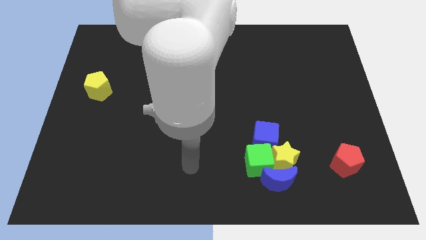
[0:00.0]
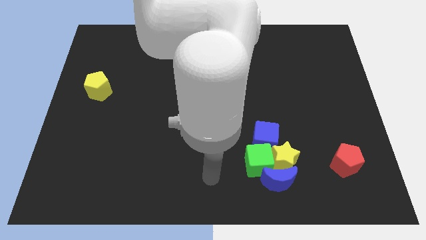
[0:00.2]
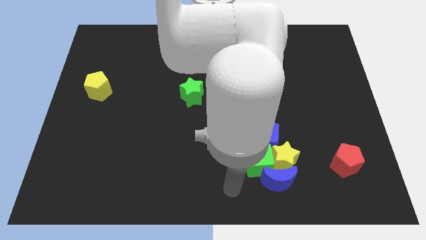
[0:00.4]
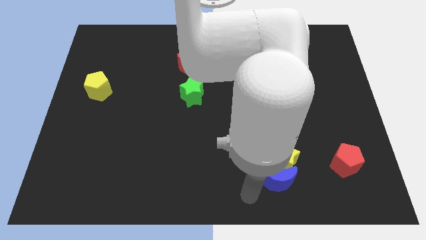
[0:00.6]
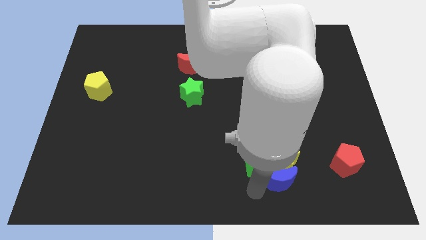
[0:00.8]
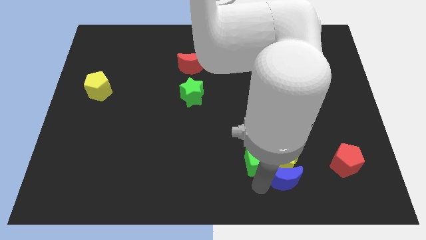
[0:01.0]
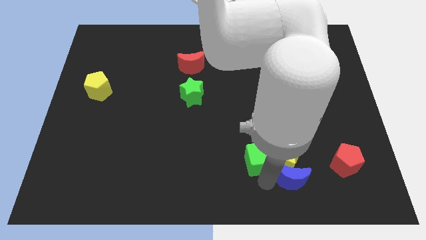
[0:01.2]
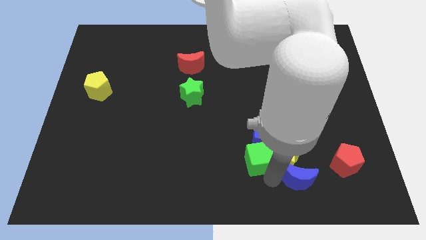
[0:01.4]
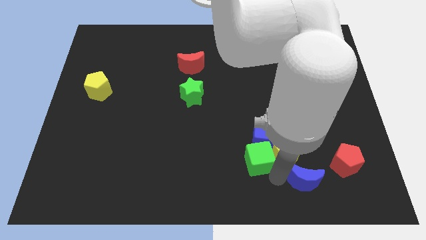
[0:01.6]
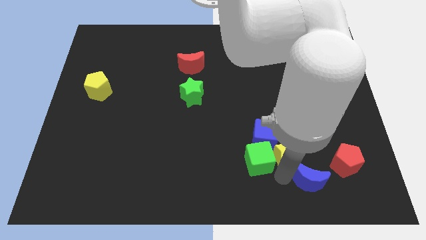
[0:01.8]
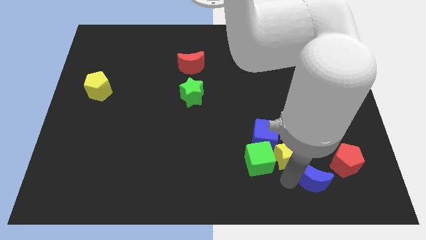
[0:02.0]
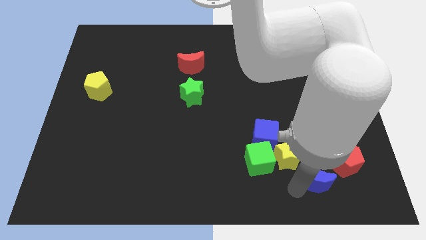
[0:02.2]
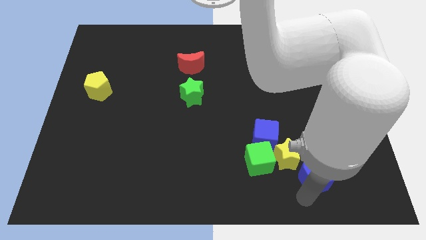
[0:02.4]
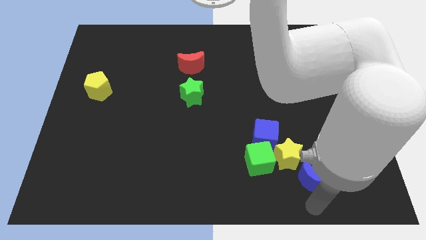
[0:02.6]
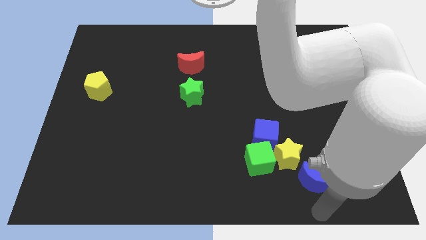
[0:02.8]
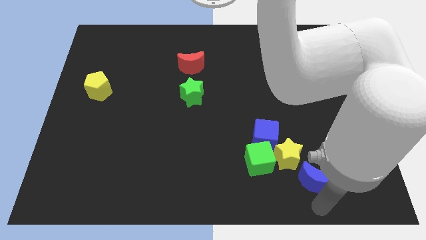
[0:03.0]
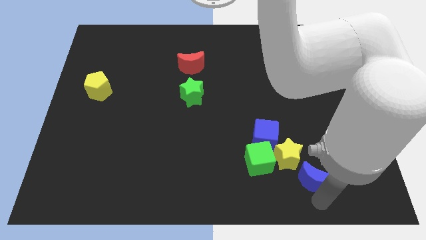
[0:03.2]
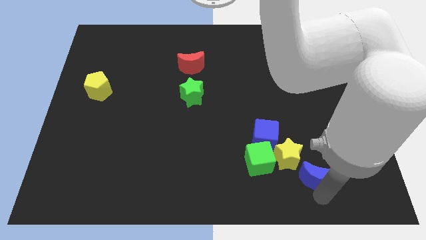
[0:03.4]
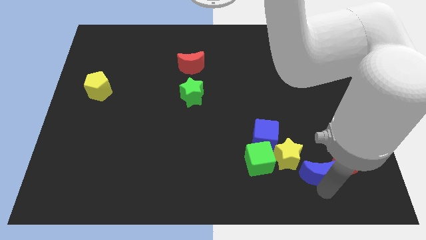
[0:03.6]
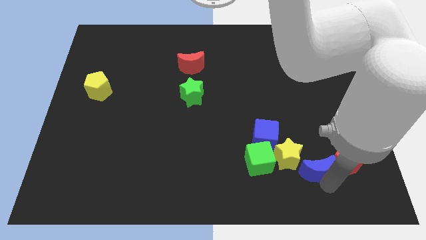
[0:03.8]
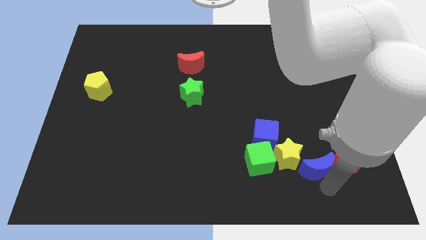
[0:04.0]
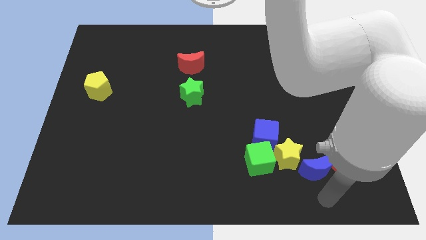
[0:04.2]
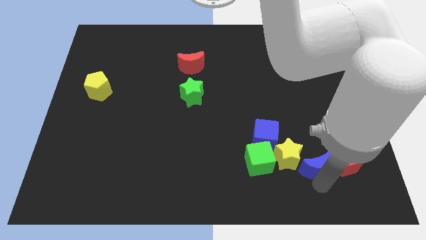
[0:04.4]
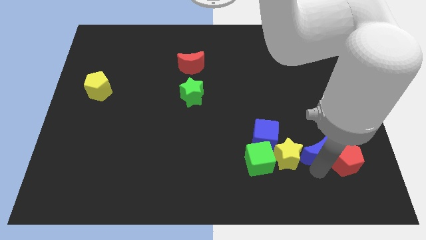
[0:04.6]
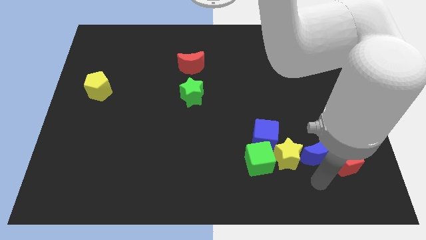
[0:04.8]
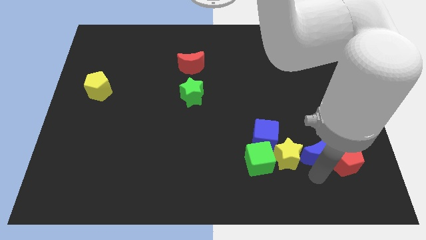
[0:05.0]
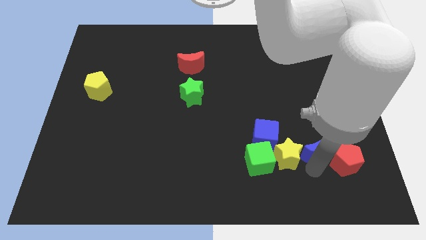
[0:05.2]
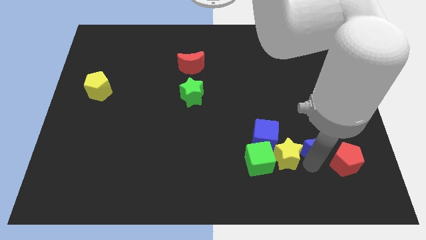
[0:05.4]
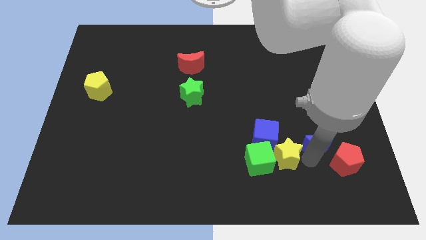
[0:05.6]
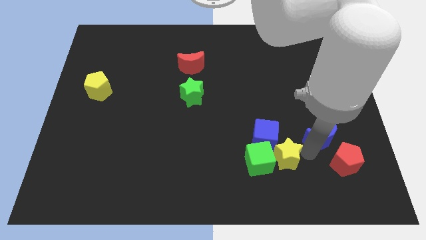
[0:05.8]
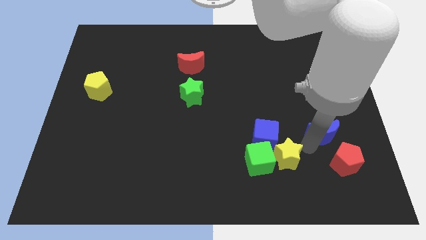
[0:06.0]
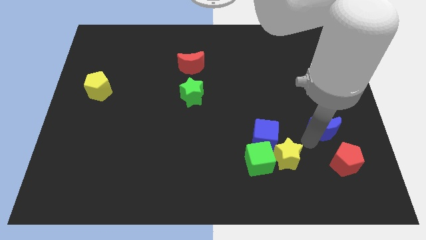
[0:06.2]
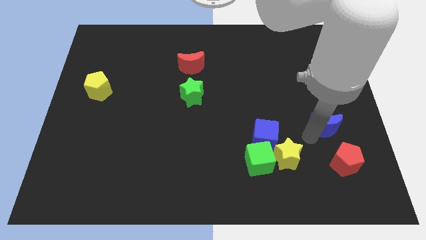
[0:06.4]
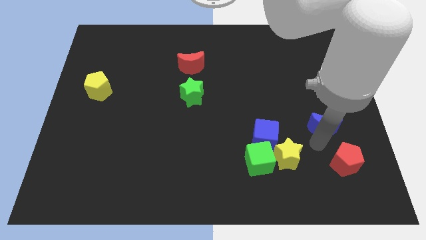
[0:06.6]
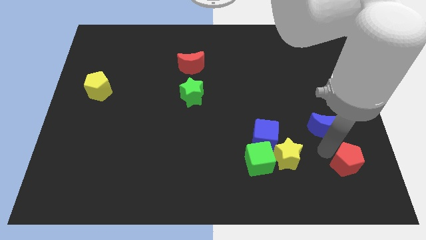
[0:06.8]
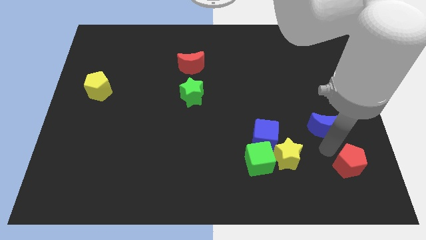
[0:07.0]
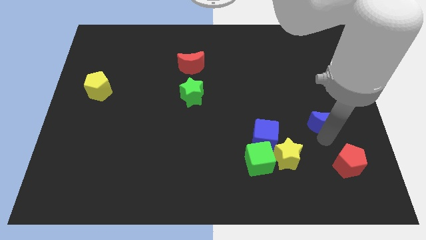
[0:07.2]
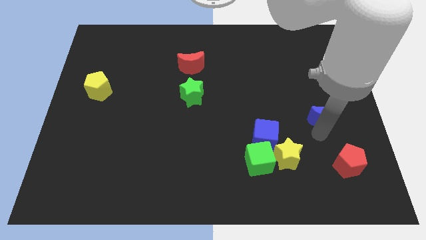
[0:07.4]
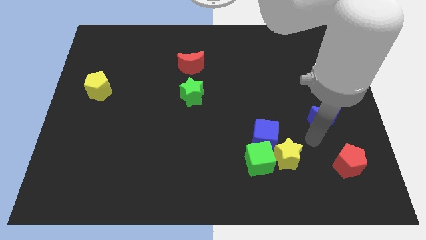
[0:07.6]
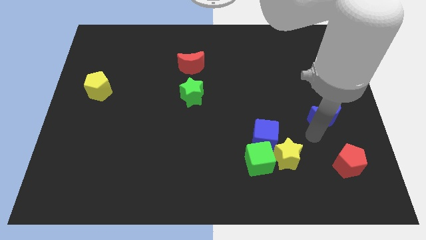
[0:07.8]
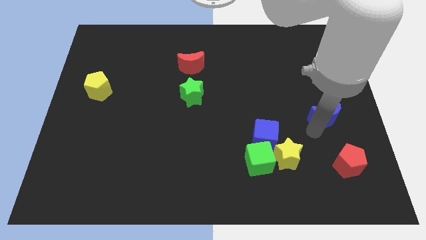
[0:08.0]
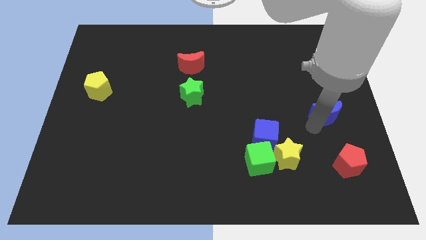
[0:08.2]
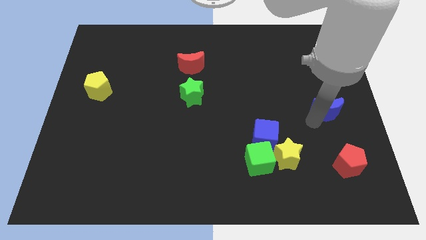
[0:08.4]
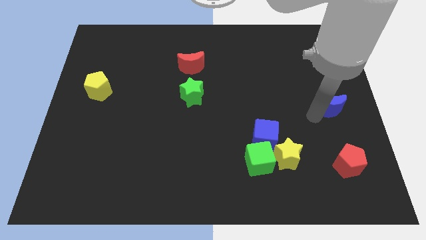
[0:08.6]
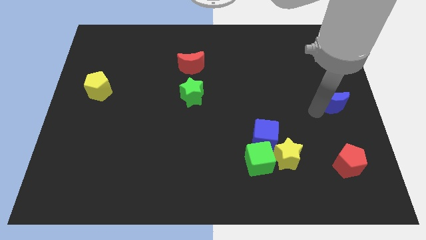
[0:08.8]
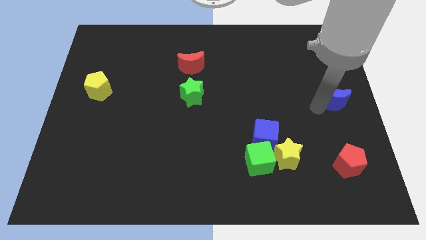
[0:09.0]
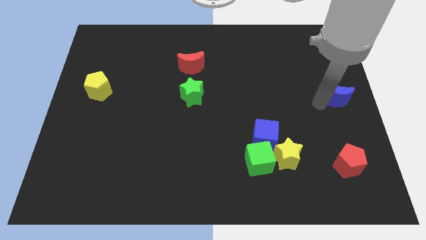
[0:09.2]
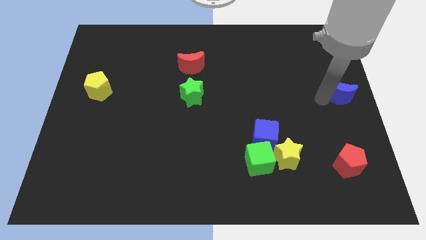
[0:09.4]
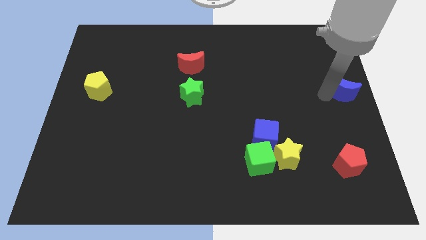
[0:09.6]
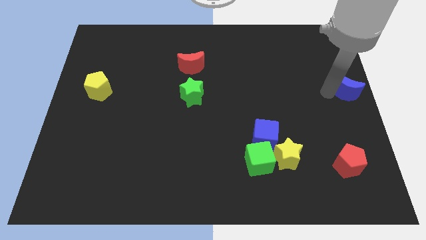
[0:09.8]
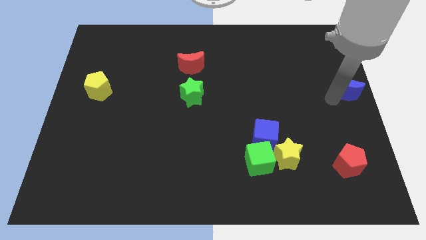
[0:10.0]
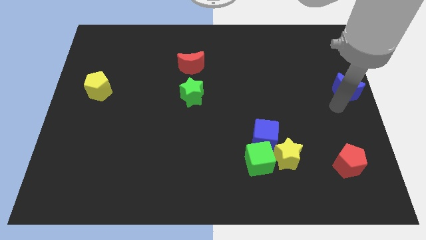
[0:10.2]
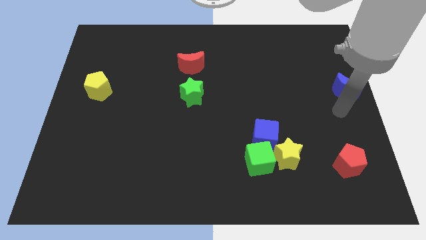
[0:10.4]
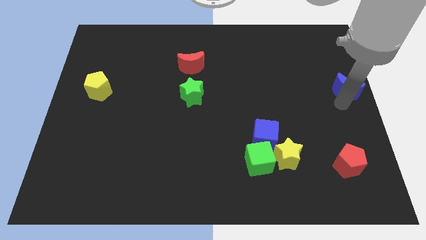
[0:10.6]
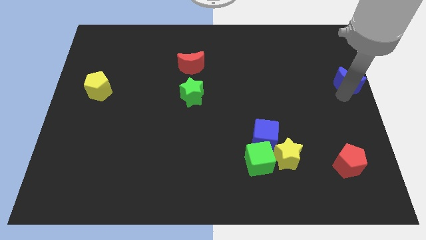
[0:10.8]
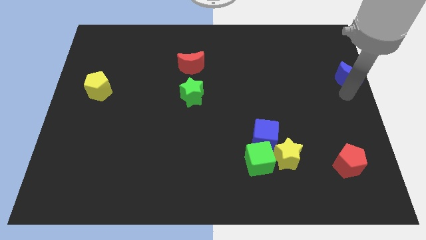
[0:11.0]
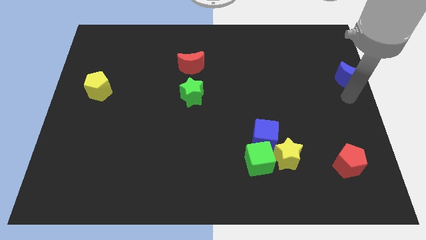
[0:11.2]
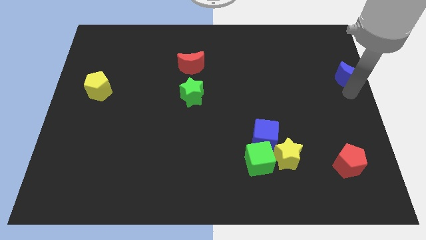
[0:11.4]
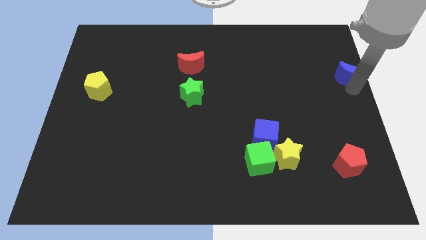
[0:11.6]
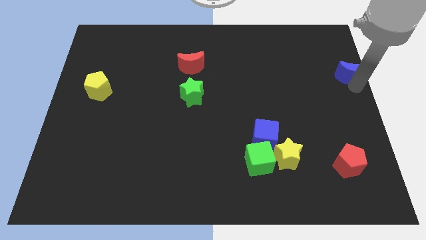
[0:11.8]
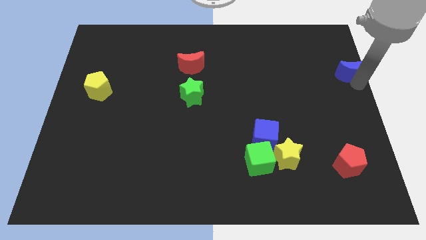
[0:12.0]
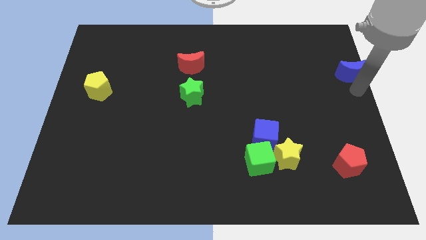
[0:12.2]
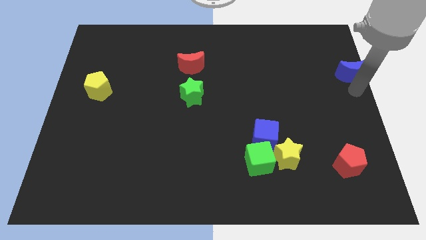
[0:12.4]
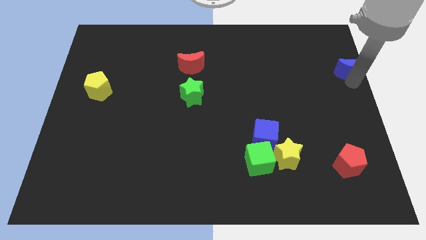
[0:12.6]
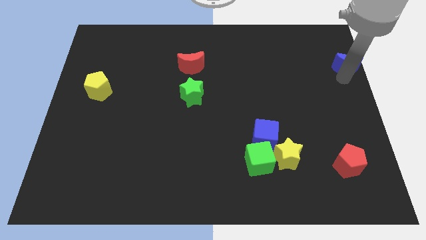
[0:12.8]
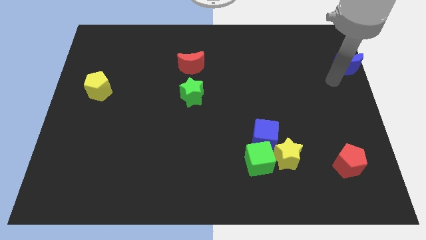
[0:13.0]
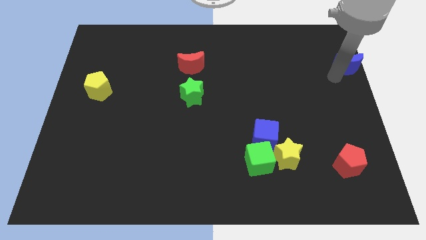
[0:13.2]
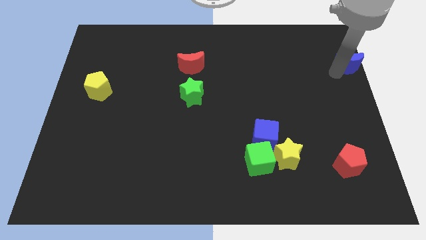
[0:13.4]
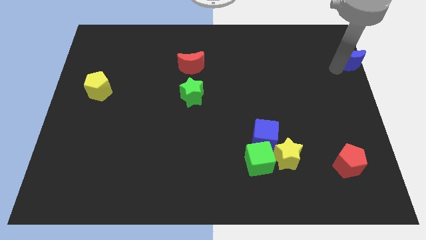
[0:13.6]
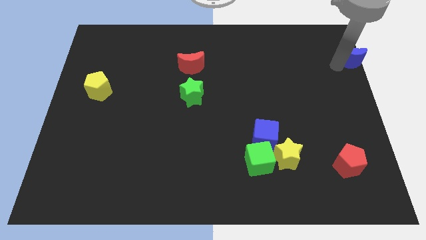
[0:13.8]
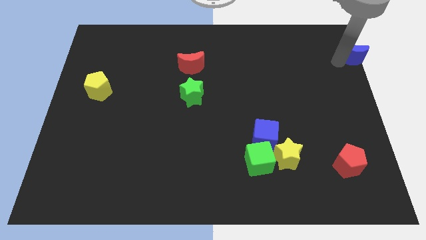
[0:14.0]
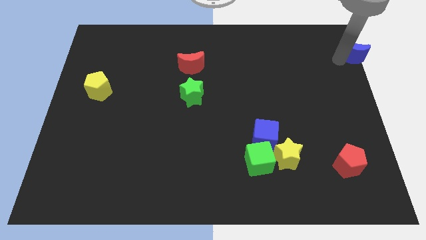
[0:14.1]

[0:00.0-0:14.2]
slide the blue moon to the top right of the board
